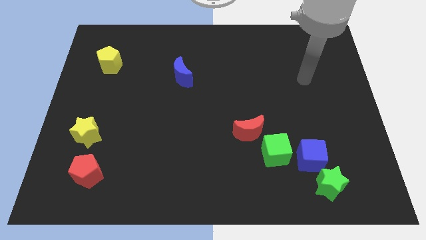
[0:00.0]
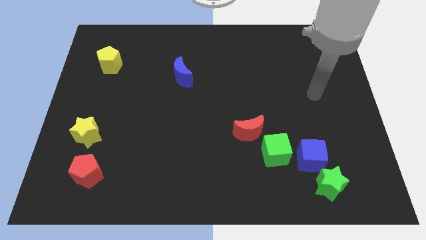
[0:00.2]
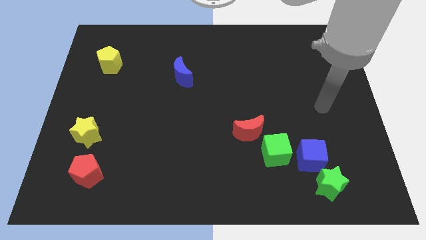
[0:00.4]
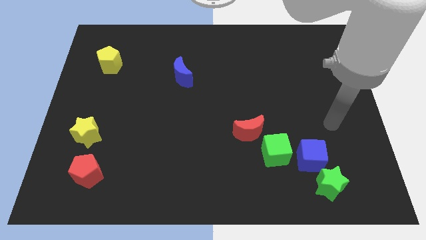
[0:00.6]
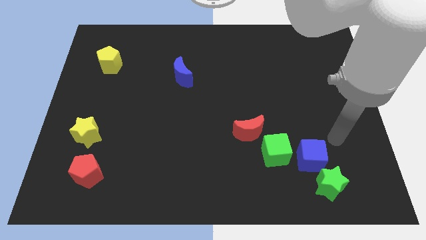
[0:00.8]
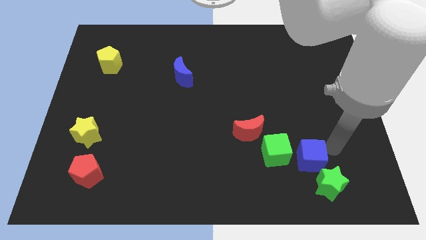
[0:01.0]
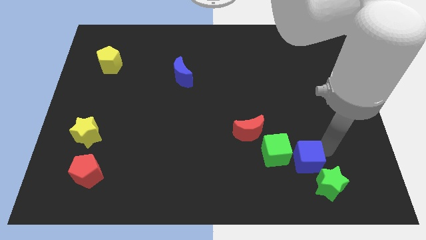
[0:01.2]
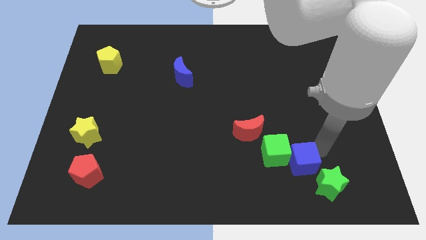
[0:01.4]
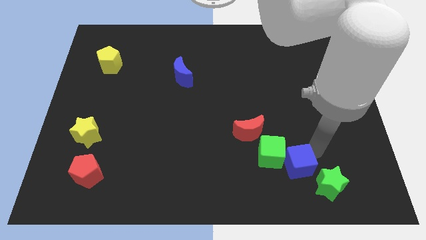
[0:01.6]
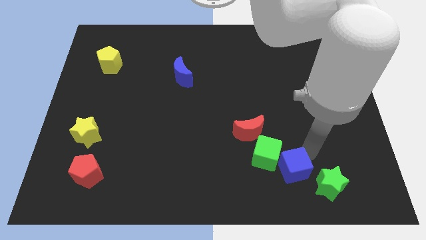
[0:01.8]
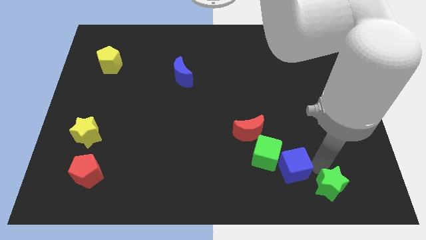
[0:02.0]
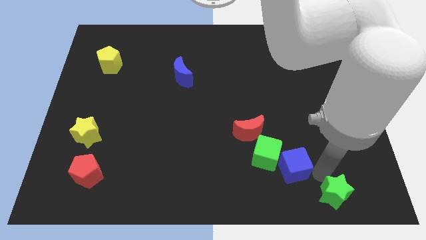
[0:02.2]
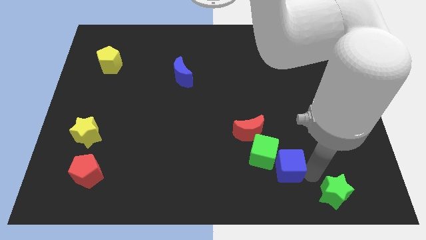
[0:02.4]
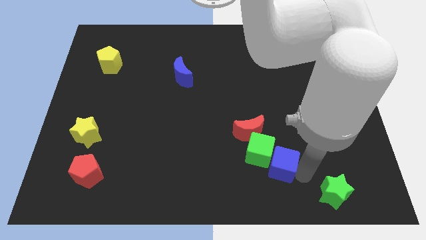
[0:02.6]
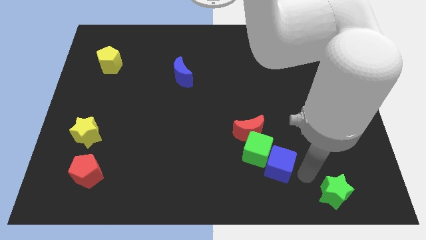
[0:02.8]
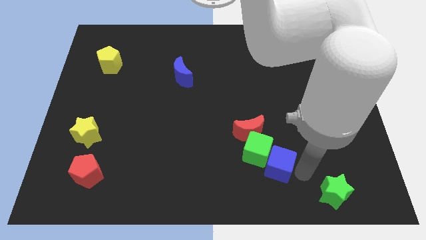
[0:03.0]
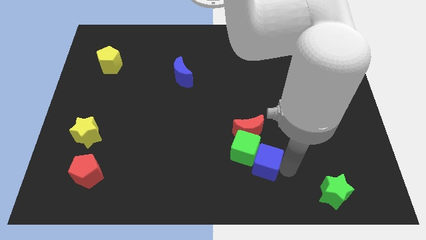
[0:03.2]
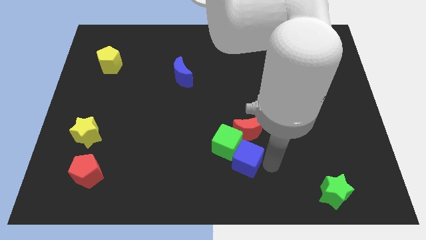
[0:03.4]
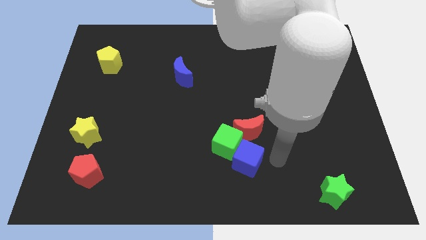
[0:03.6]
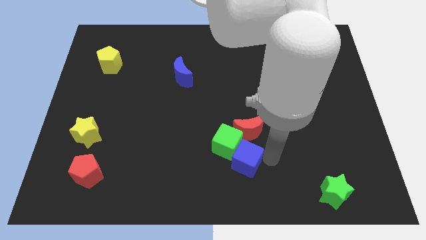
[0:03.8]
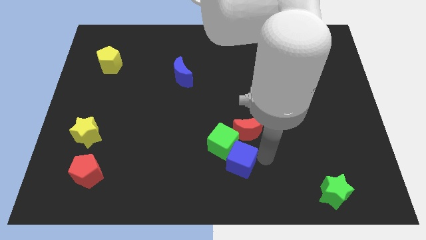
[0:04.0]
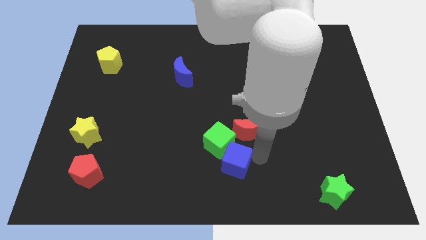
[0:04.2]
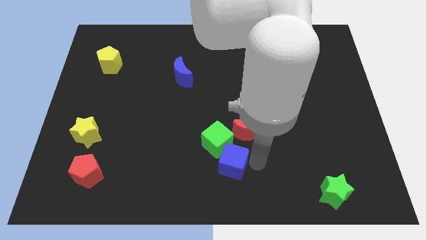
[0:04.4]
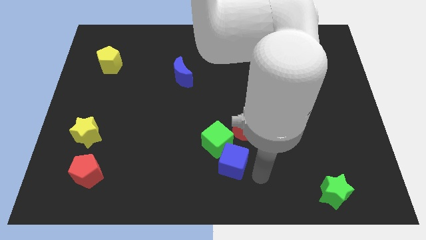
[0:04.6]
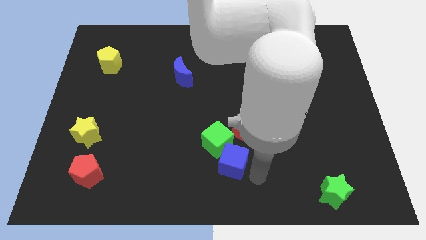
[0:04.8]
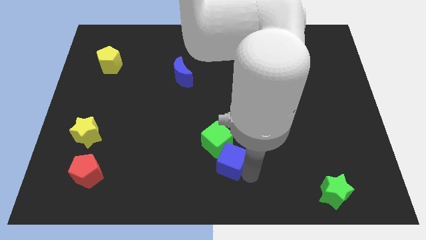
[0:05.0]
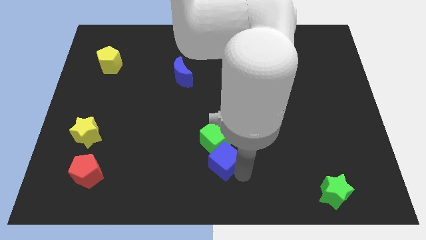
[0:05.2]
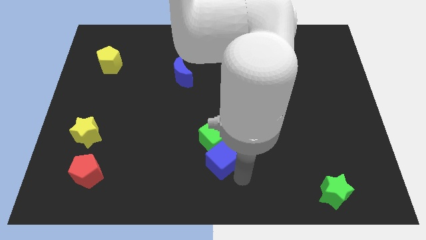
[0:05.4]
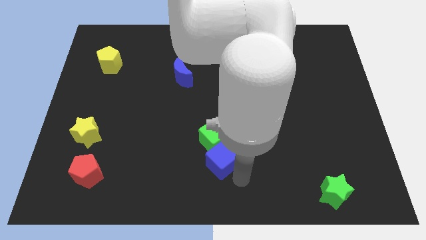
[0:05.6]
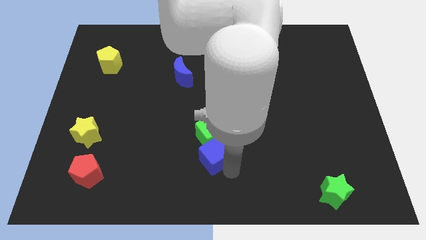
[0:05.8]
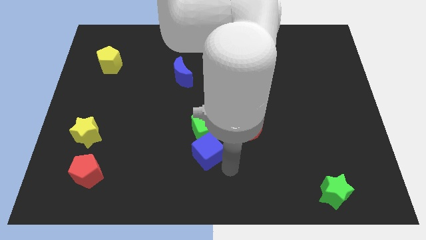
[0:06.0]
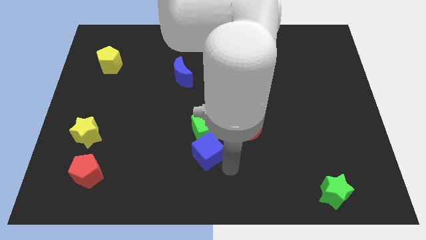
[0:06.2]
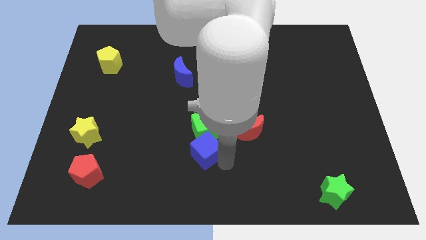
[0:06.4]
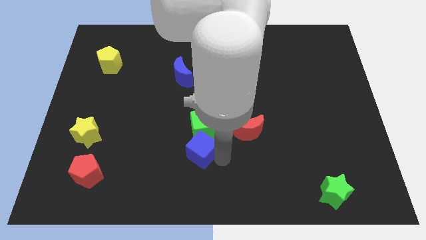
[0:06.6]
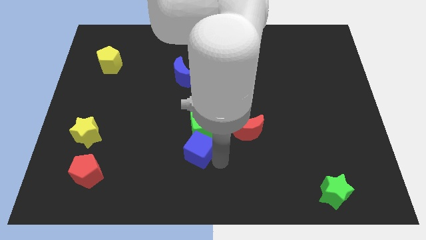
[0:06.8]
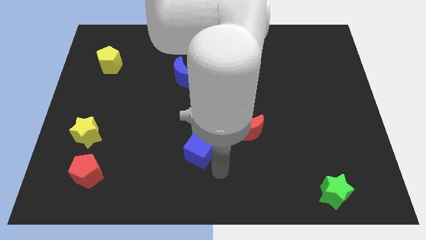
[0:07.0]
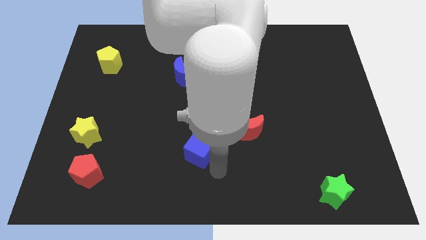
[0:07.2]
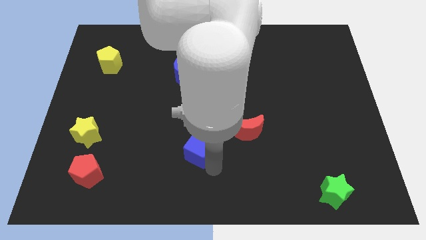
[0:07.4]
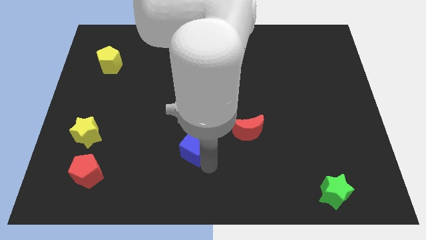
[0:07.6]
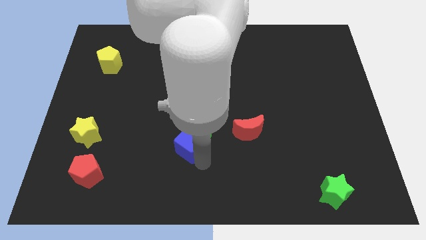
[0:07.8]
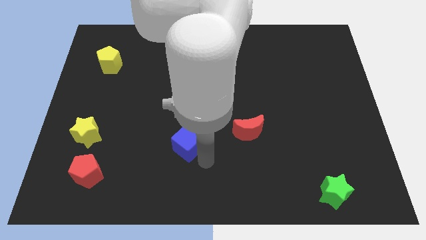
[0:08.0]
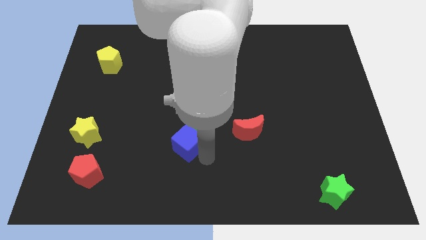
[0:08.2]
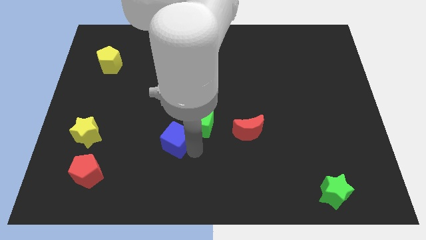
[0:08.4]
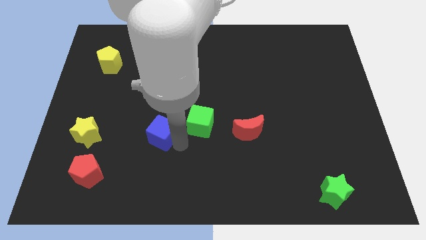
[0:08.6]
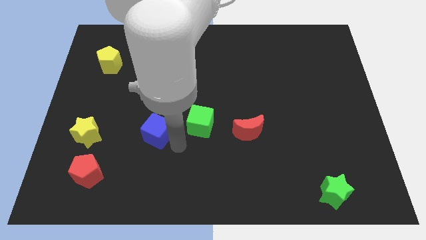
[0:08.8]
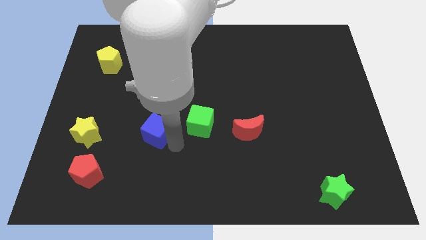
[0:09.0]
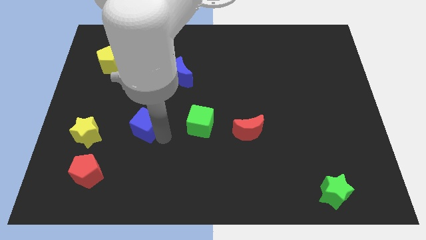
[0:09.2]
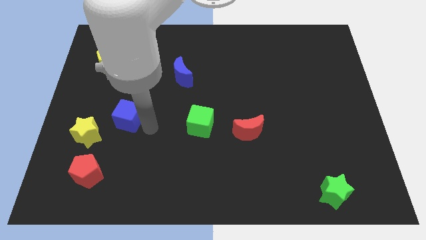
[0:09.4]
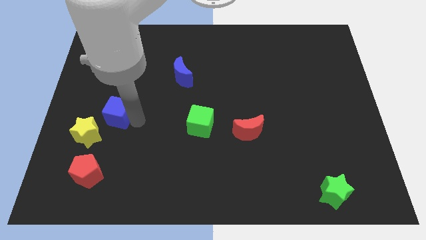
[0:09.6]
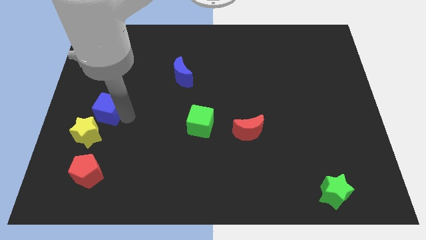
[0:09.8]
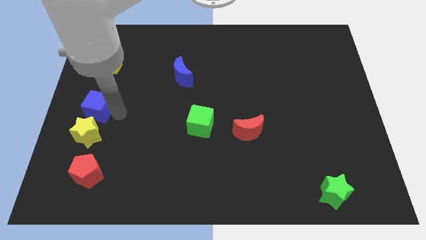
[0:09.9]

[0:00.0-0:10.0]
put the blue cube to the left side

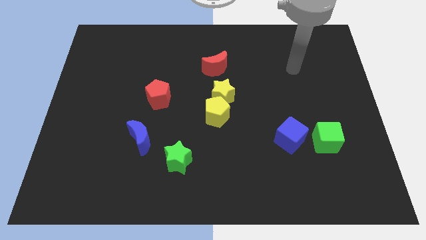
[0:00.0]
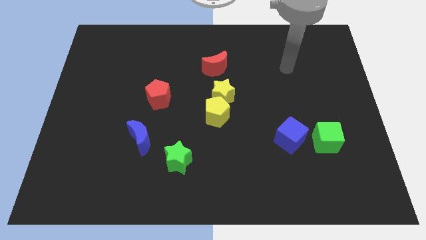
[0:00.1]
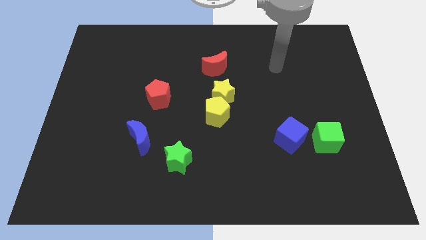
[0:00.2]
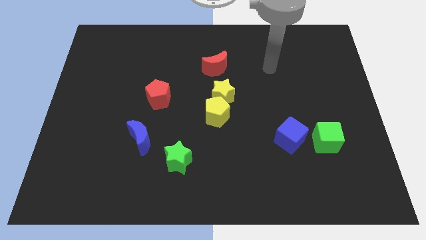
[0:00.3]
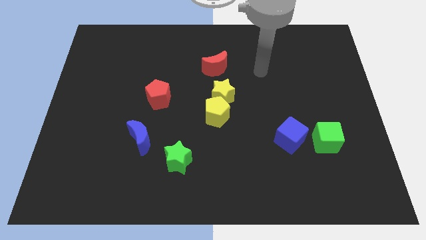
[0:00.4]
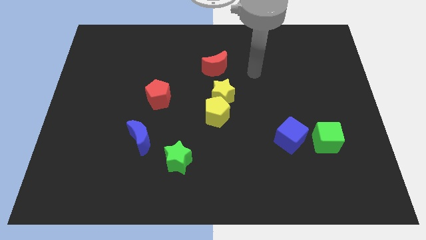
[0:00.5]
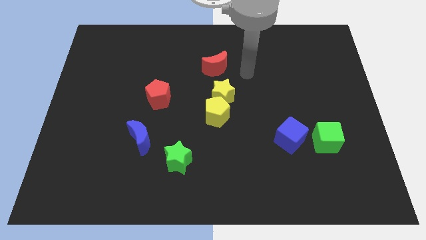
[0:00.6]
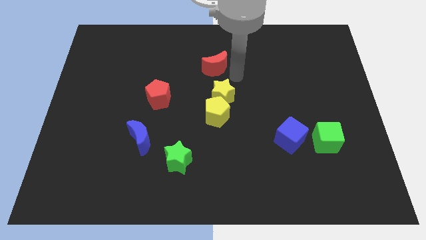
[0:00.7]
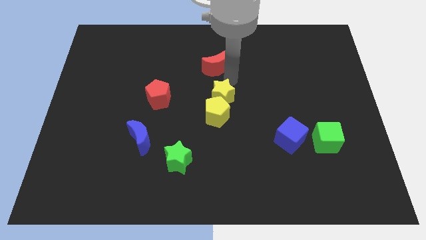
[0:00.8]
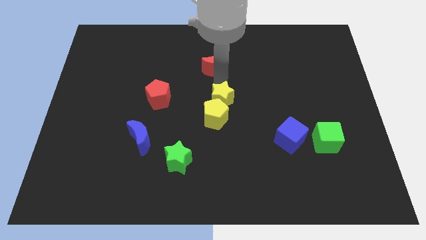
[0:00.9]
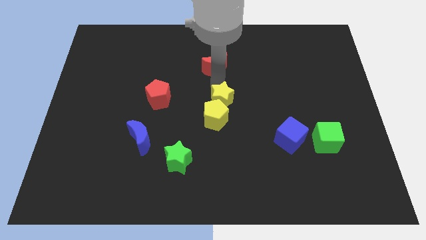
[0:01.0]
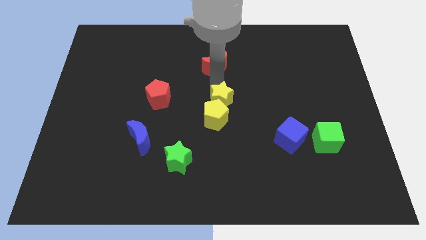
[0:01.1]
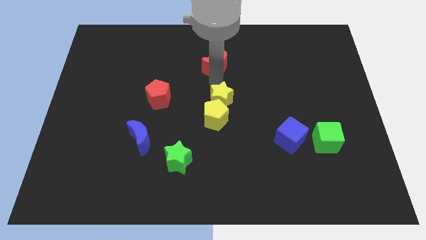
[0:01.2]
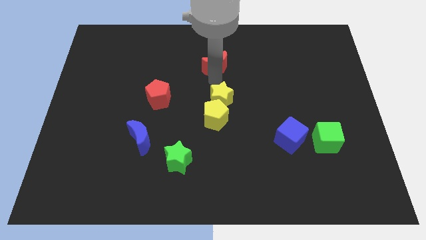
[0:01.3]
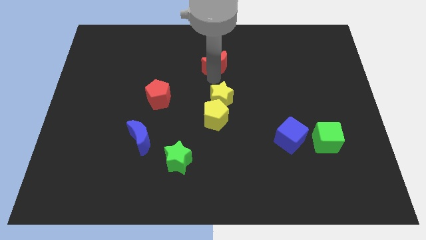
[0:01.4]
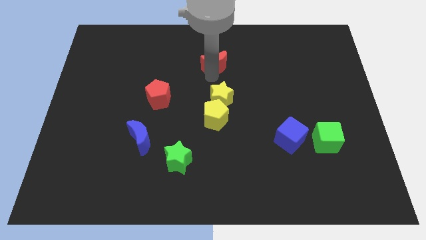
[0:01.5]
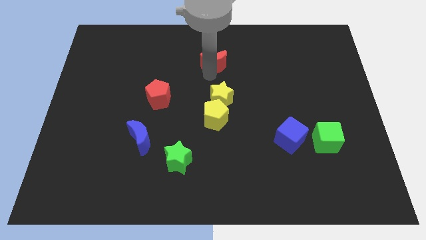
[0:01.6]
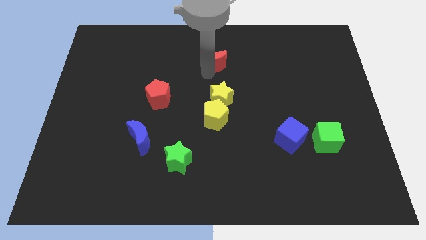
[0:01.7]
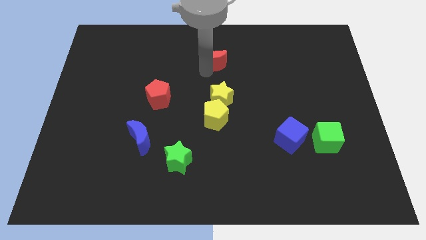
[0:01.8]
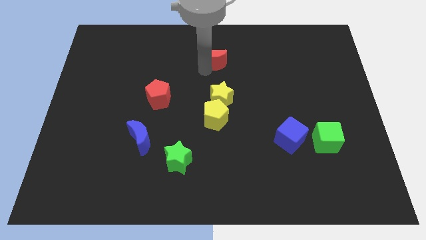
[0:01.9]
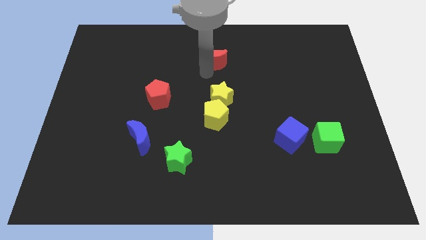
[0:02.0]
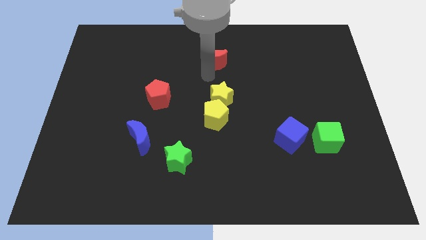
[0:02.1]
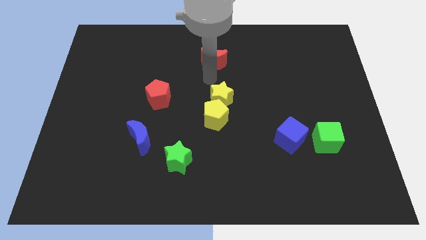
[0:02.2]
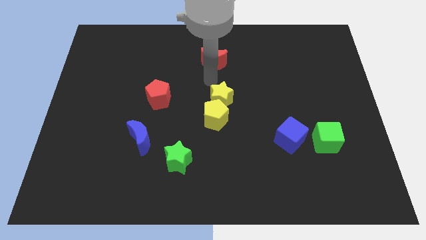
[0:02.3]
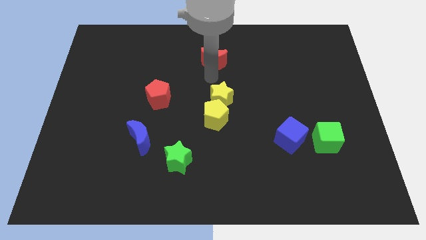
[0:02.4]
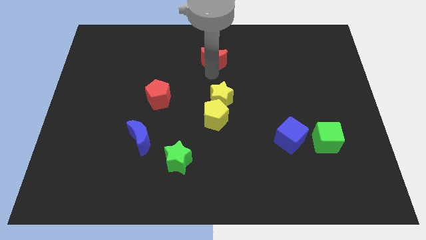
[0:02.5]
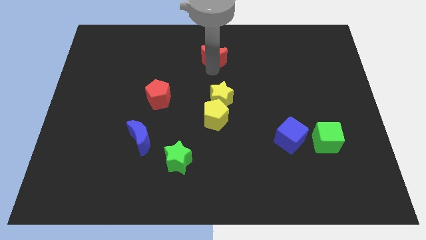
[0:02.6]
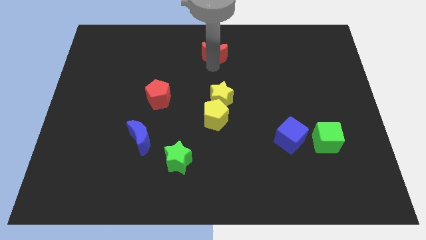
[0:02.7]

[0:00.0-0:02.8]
slide the red moon to the towards your base
